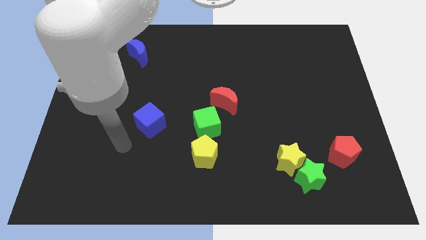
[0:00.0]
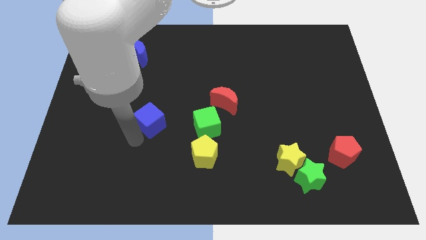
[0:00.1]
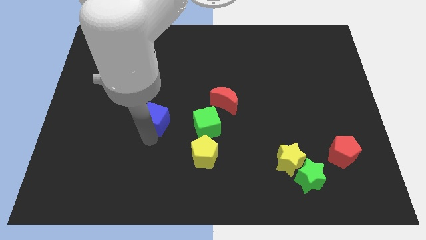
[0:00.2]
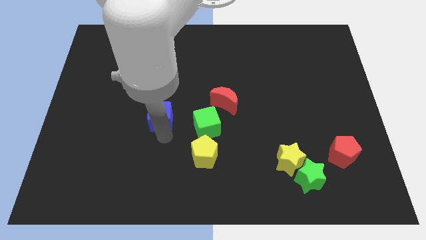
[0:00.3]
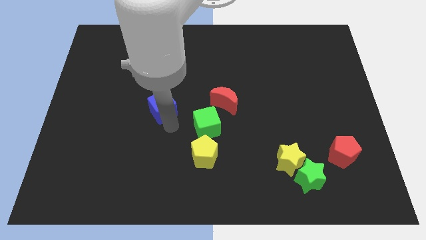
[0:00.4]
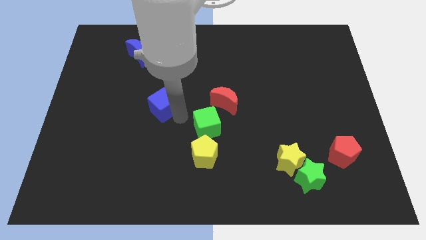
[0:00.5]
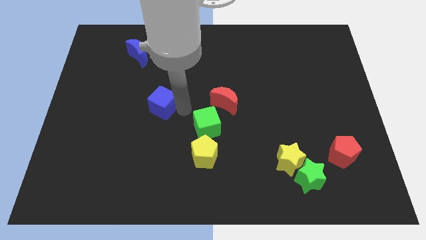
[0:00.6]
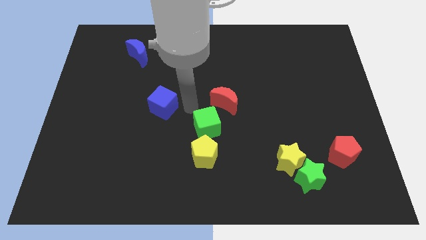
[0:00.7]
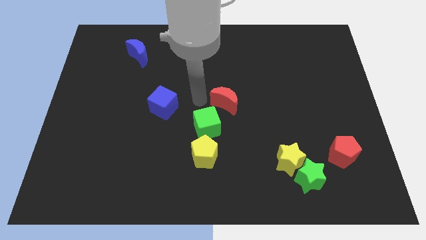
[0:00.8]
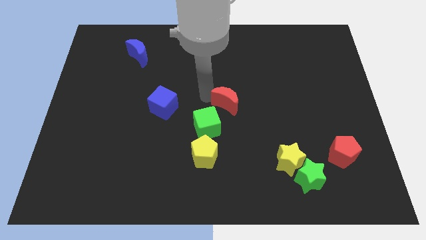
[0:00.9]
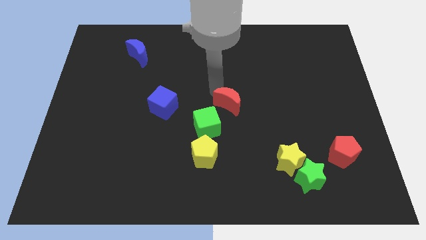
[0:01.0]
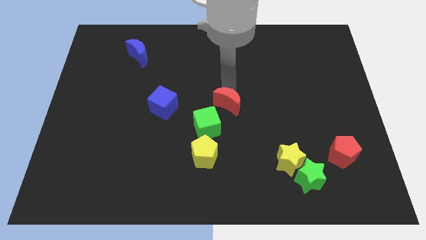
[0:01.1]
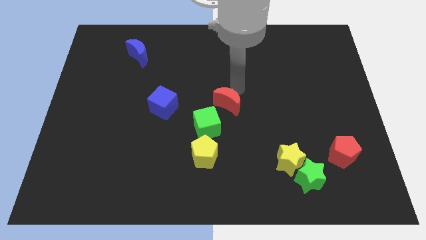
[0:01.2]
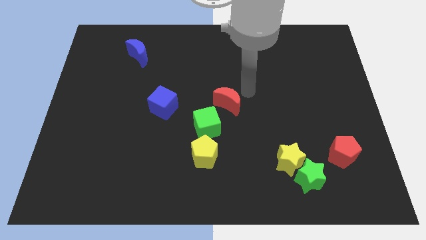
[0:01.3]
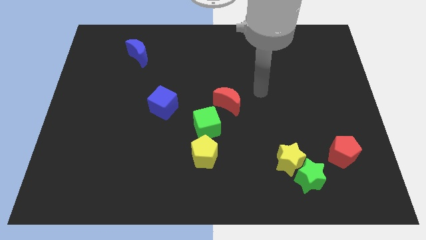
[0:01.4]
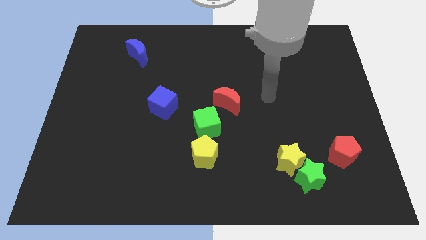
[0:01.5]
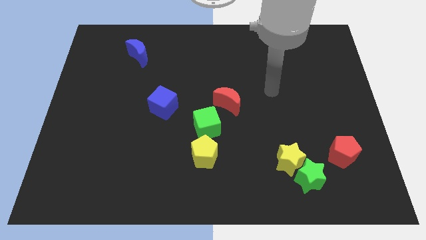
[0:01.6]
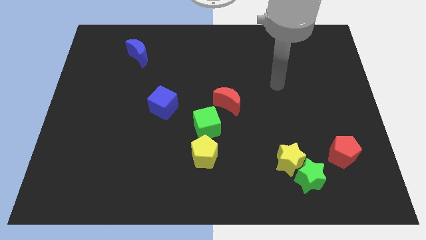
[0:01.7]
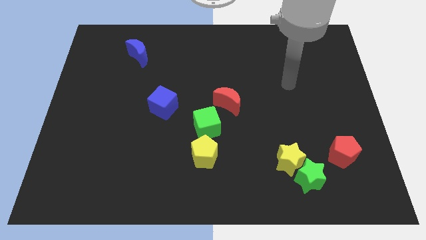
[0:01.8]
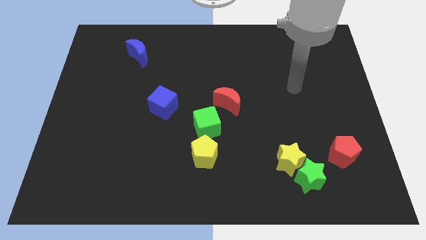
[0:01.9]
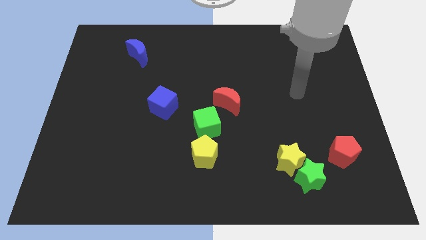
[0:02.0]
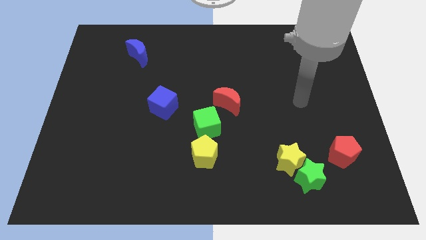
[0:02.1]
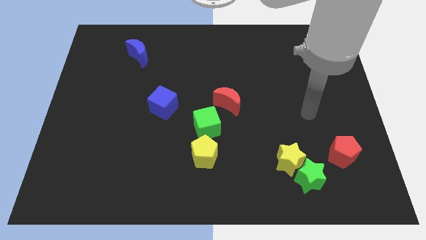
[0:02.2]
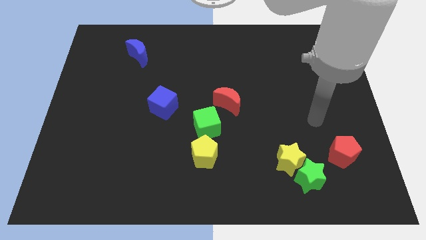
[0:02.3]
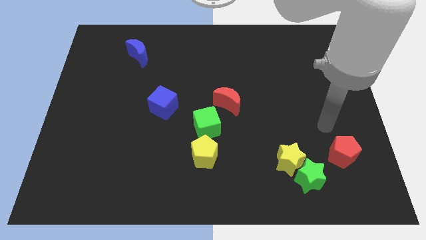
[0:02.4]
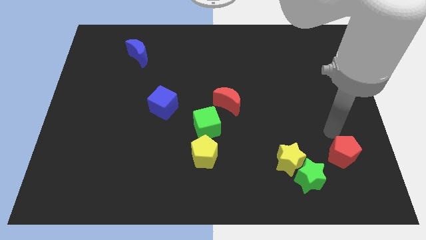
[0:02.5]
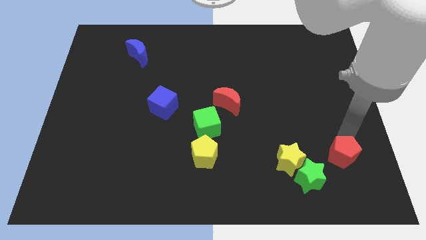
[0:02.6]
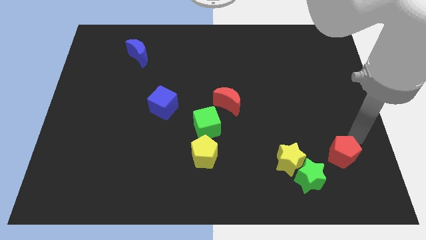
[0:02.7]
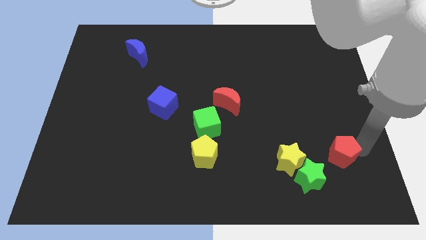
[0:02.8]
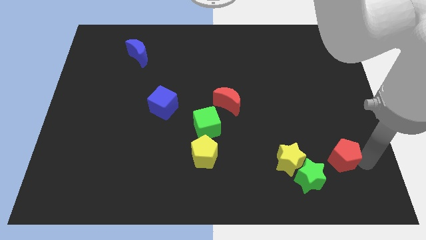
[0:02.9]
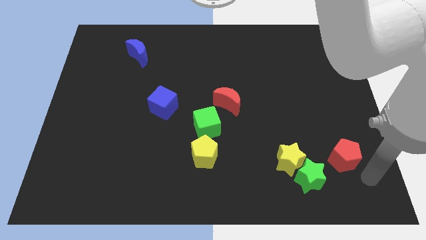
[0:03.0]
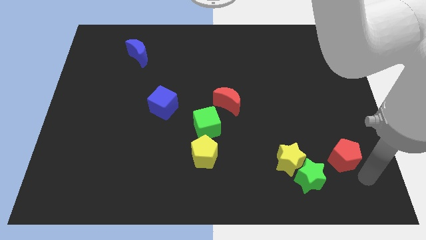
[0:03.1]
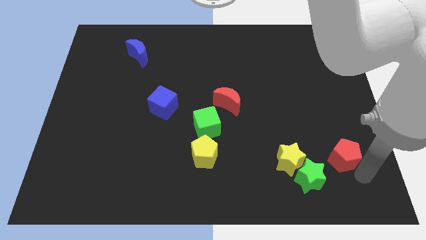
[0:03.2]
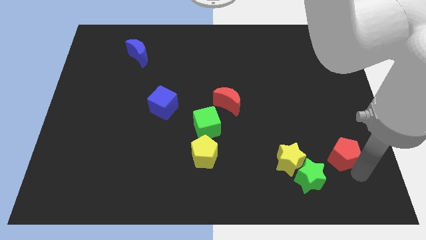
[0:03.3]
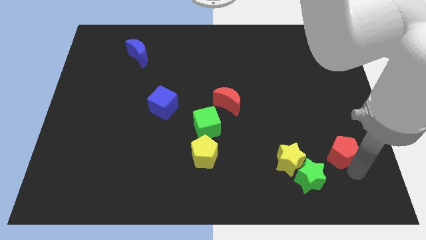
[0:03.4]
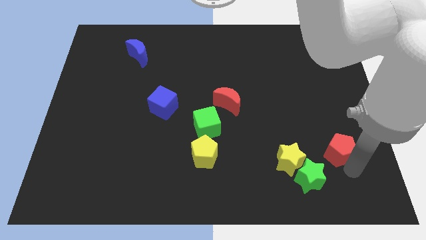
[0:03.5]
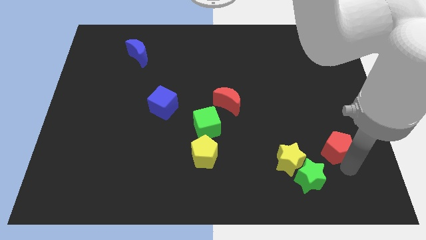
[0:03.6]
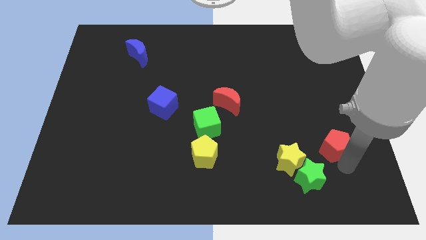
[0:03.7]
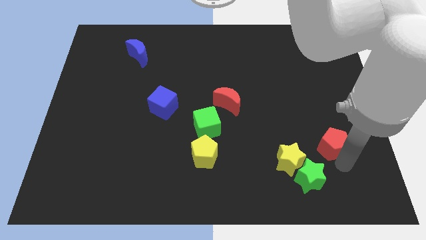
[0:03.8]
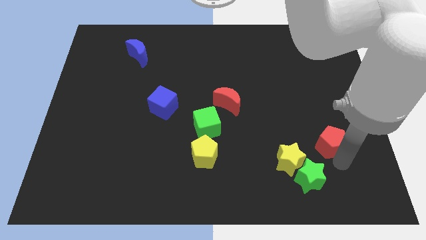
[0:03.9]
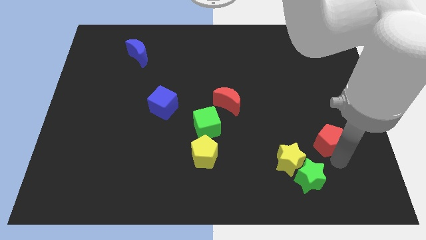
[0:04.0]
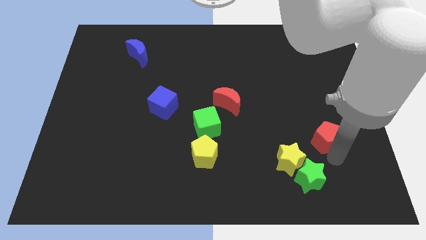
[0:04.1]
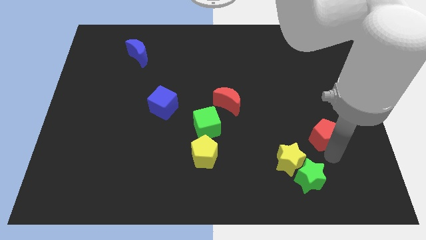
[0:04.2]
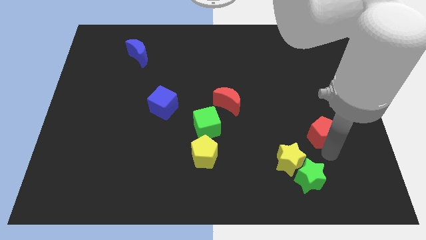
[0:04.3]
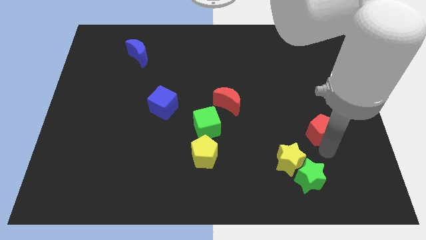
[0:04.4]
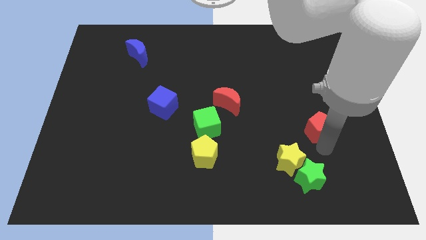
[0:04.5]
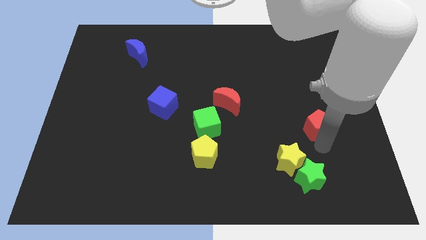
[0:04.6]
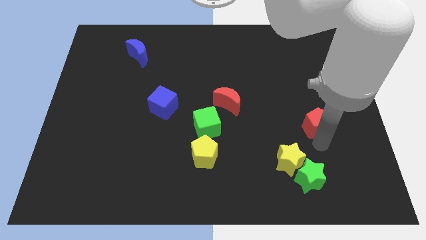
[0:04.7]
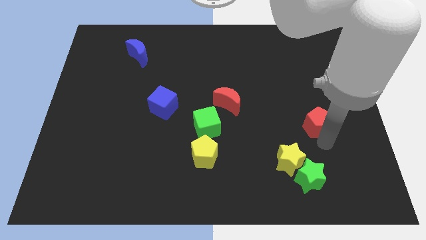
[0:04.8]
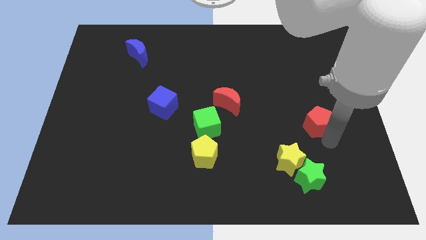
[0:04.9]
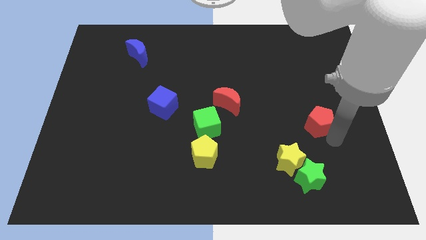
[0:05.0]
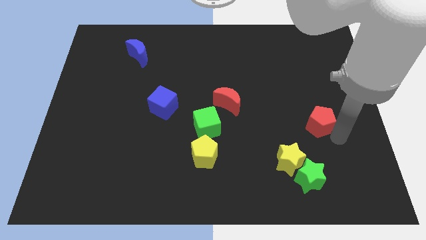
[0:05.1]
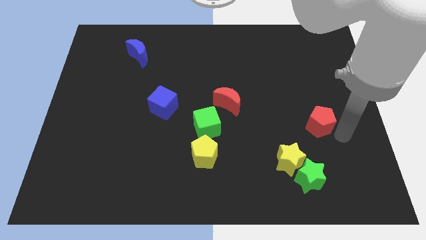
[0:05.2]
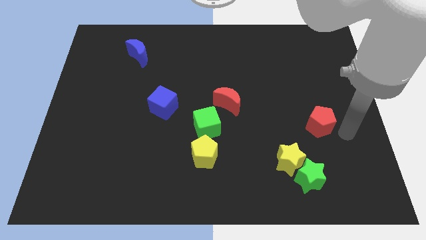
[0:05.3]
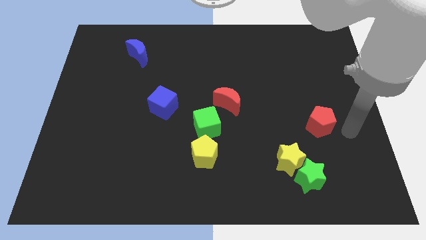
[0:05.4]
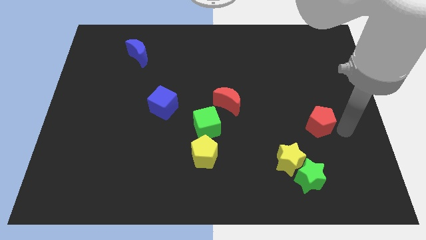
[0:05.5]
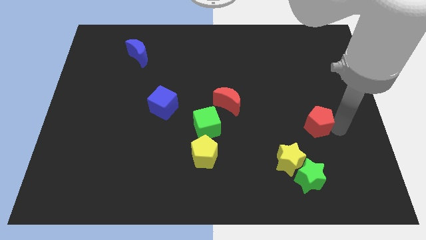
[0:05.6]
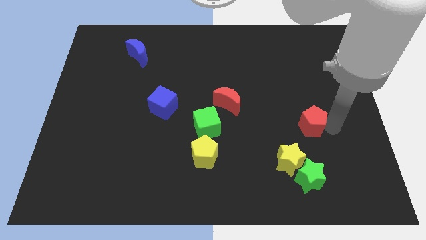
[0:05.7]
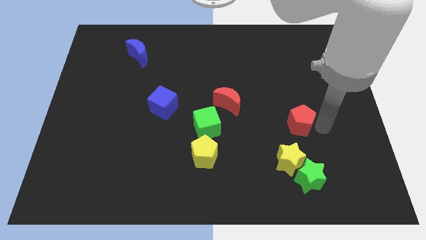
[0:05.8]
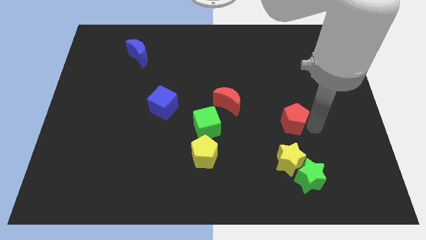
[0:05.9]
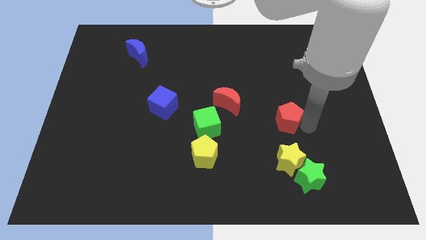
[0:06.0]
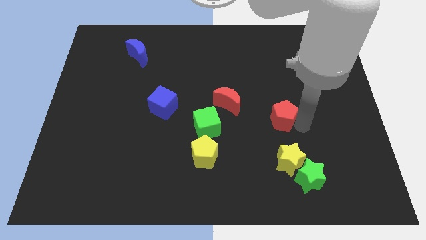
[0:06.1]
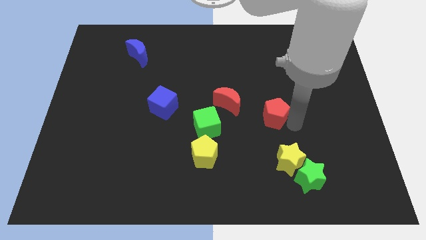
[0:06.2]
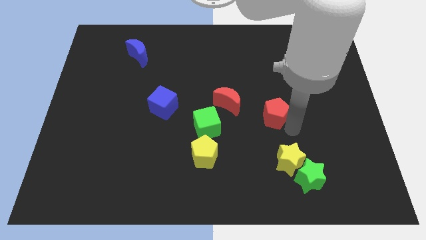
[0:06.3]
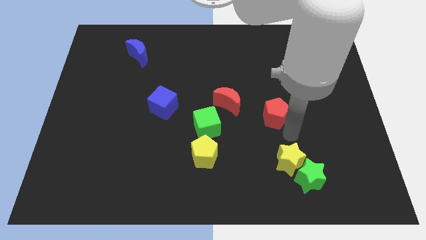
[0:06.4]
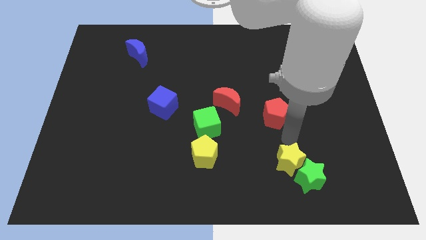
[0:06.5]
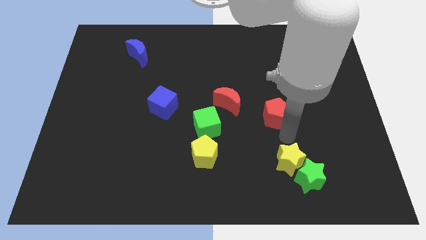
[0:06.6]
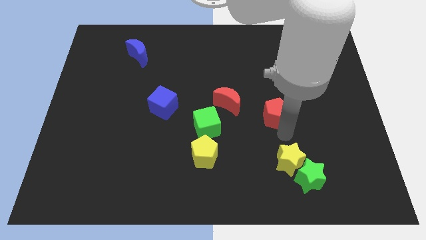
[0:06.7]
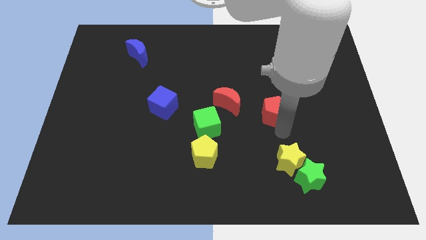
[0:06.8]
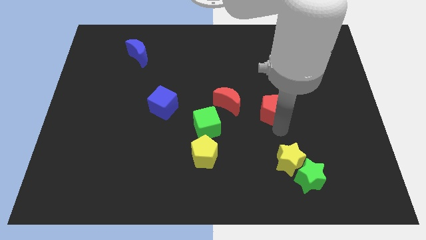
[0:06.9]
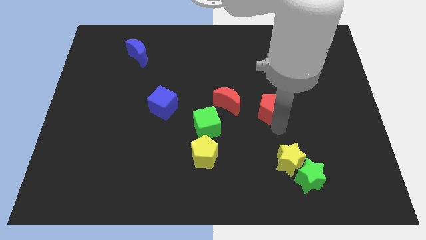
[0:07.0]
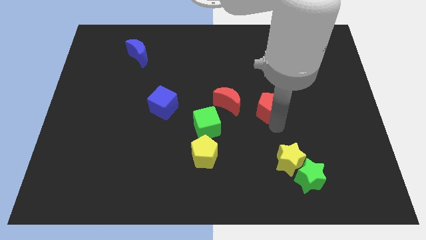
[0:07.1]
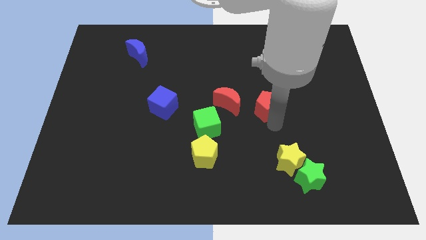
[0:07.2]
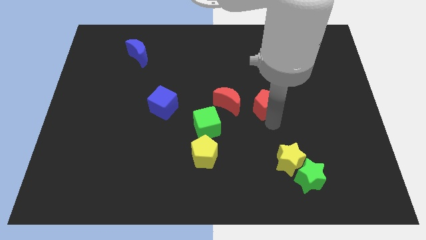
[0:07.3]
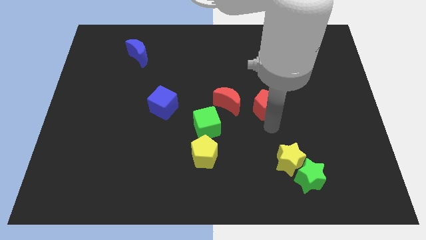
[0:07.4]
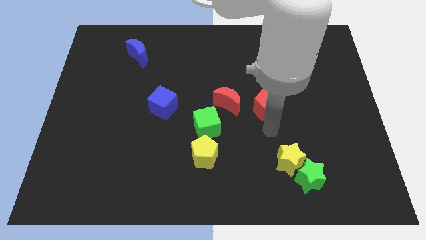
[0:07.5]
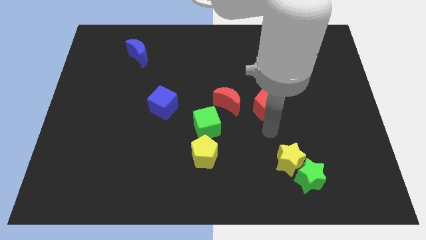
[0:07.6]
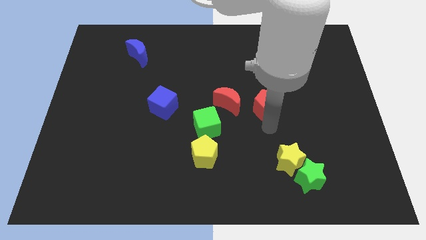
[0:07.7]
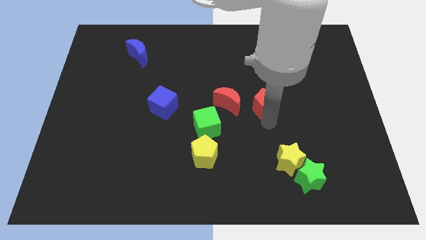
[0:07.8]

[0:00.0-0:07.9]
push the red pentagon upwards and left

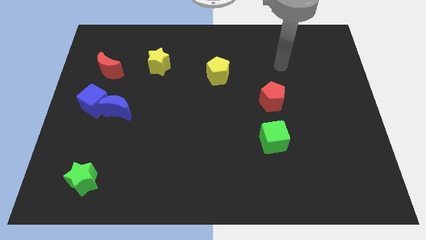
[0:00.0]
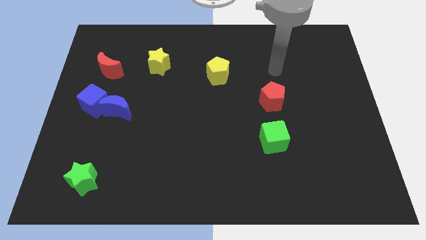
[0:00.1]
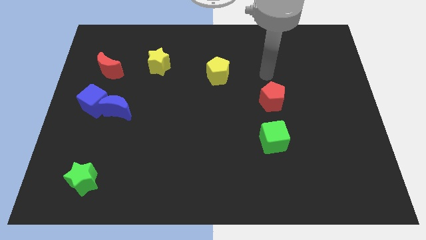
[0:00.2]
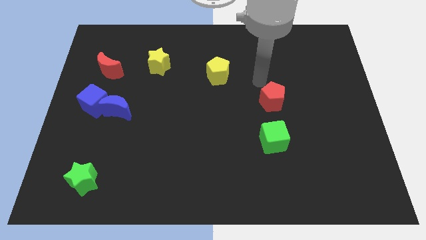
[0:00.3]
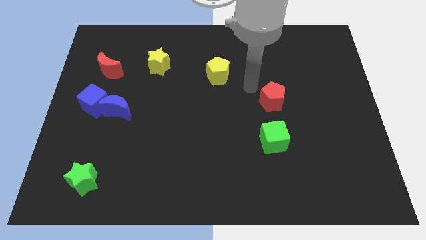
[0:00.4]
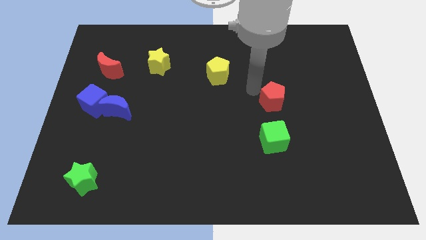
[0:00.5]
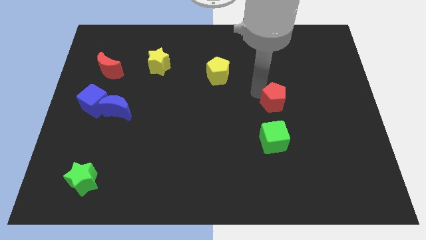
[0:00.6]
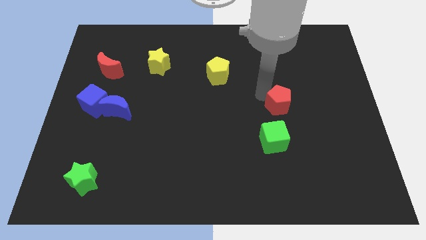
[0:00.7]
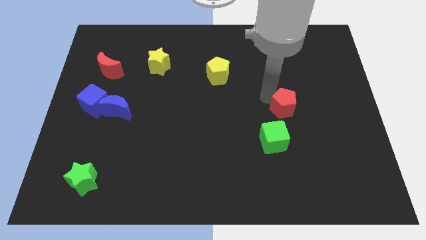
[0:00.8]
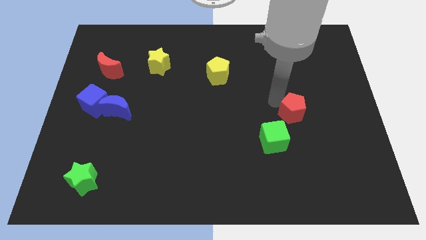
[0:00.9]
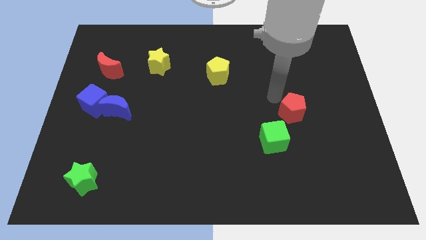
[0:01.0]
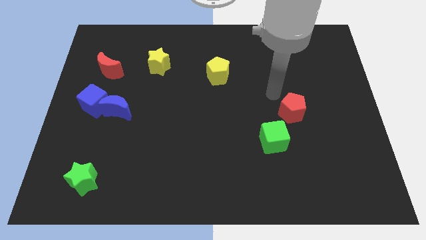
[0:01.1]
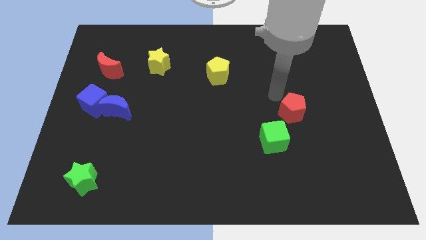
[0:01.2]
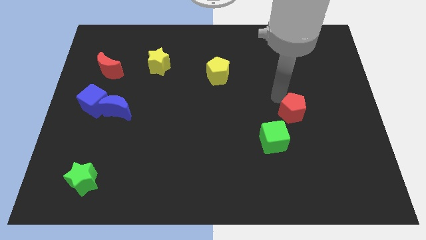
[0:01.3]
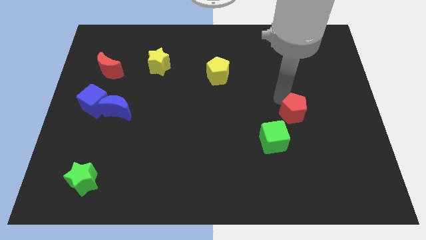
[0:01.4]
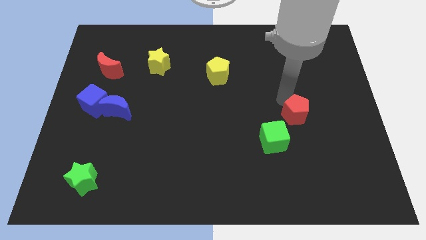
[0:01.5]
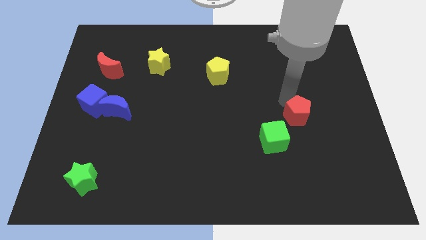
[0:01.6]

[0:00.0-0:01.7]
push the red pentagon downwards and to the right diagonally a little bit
